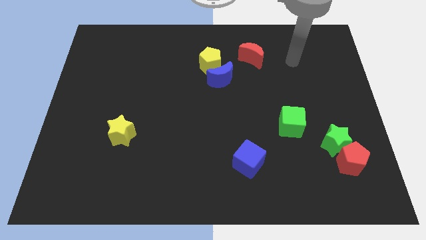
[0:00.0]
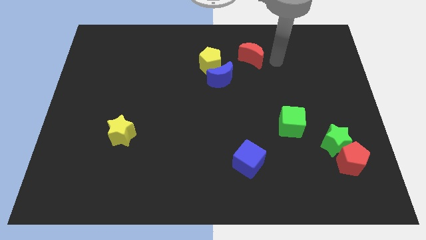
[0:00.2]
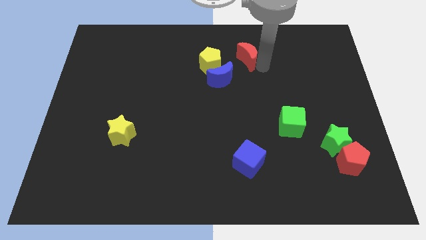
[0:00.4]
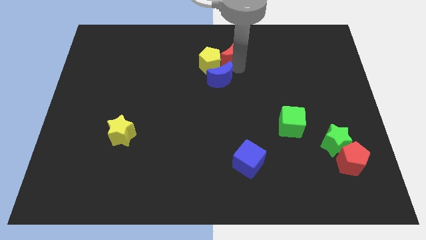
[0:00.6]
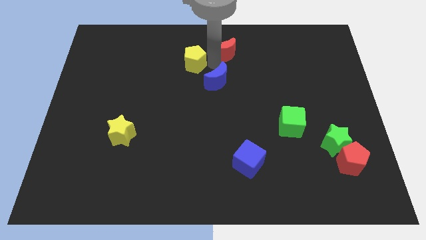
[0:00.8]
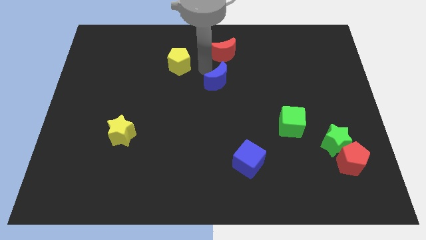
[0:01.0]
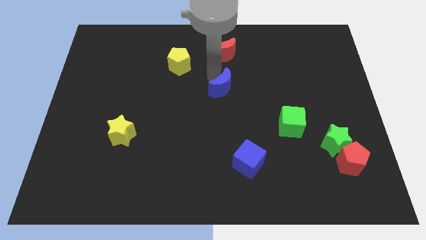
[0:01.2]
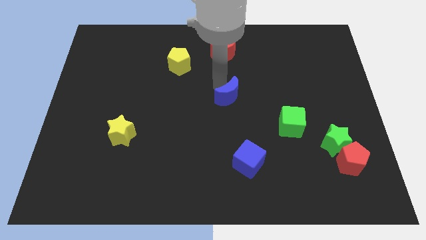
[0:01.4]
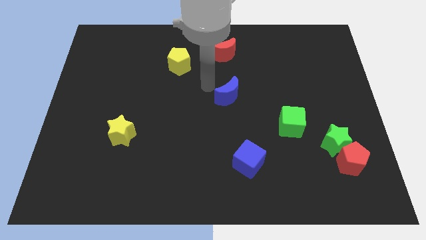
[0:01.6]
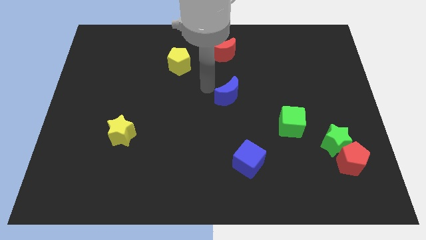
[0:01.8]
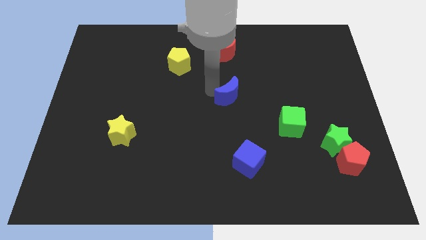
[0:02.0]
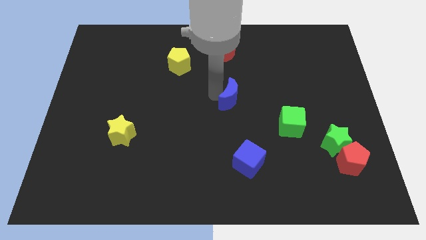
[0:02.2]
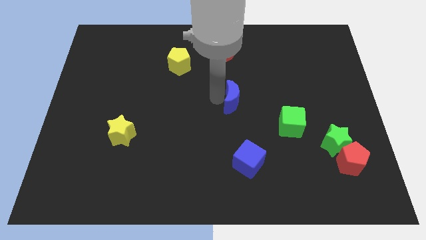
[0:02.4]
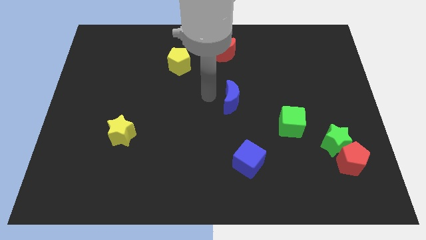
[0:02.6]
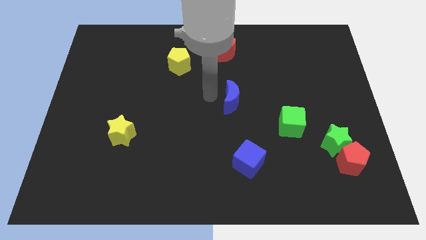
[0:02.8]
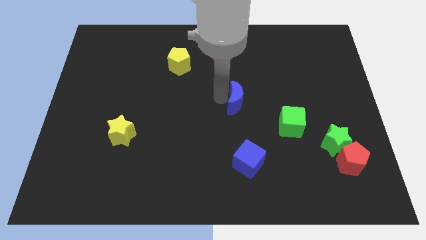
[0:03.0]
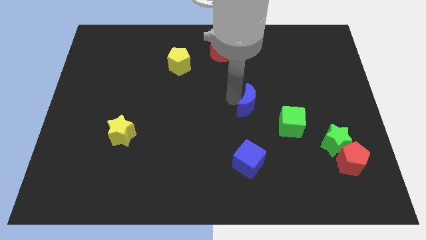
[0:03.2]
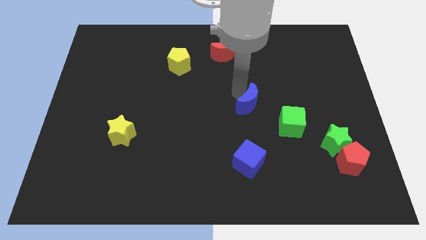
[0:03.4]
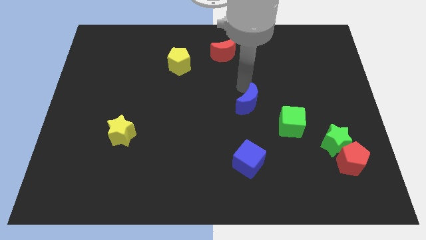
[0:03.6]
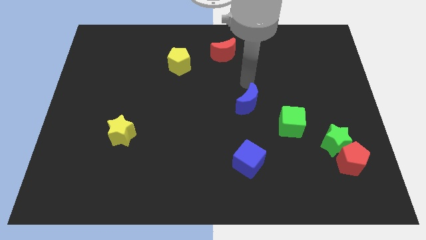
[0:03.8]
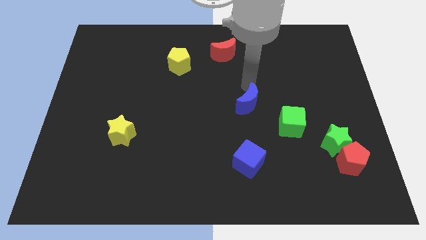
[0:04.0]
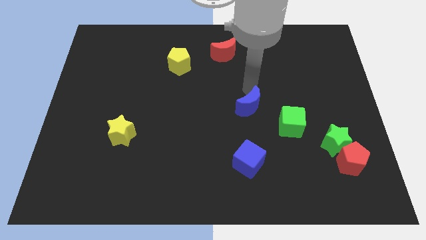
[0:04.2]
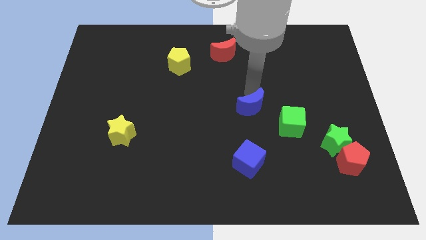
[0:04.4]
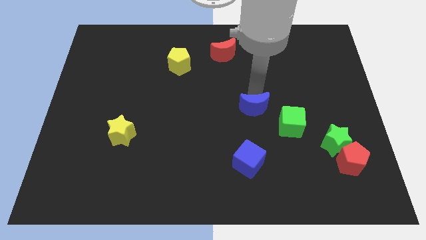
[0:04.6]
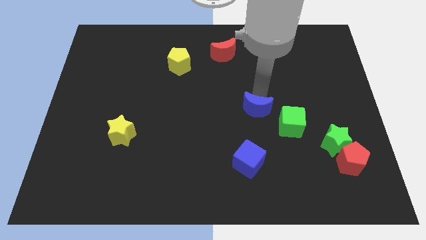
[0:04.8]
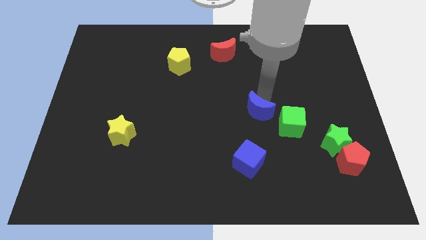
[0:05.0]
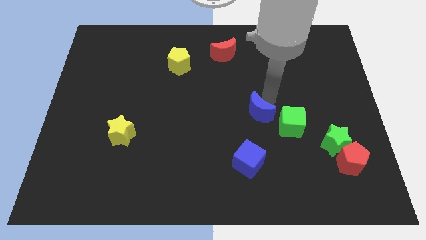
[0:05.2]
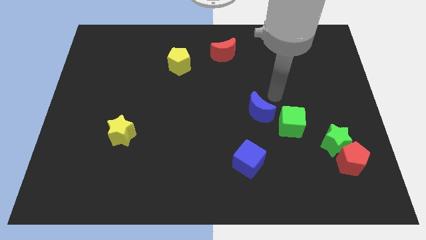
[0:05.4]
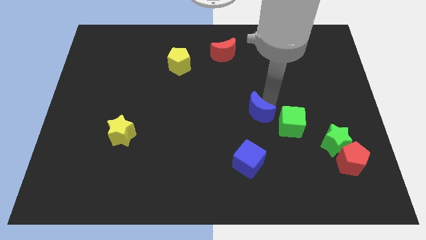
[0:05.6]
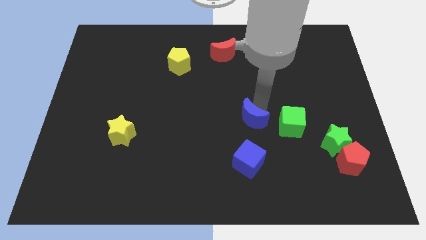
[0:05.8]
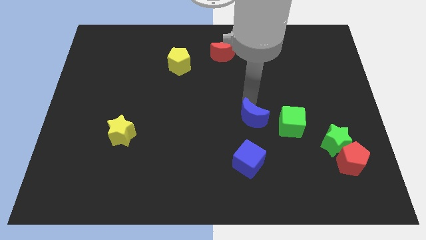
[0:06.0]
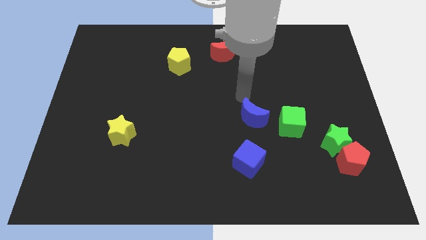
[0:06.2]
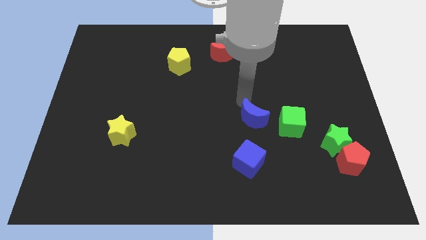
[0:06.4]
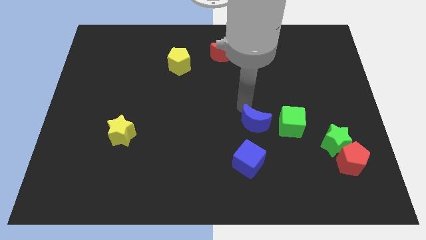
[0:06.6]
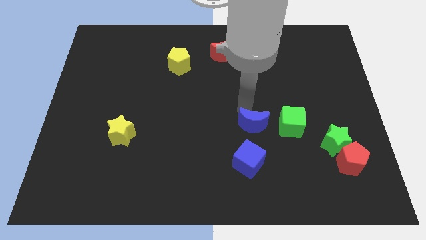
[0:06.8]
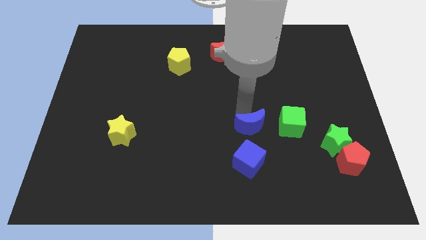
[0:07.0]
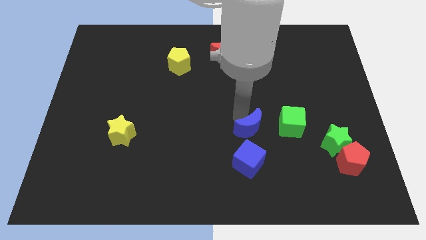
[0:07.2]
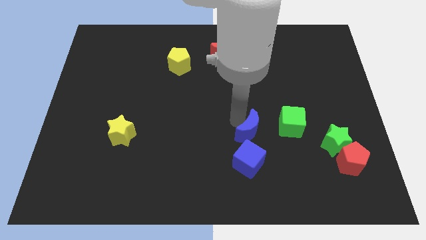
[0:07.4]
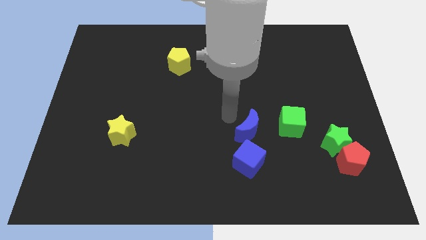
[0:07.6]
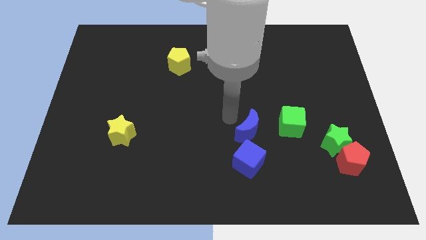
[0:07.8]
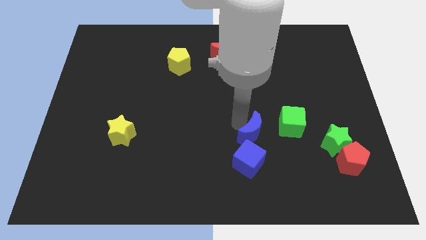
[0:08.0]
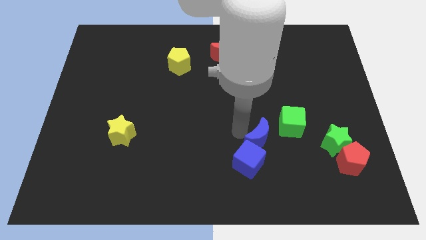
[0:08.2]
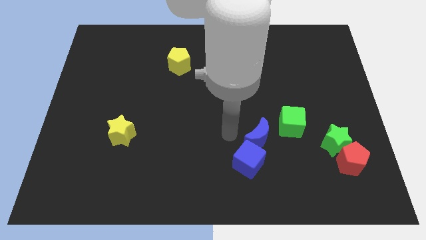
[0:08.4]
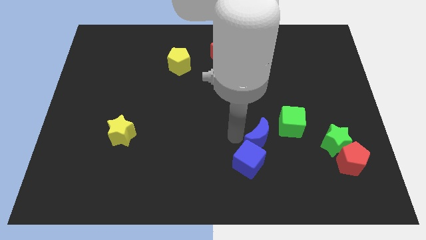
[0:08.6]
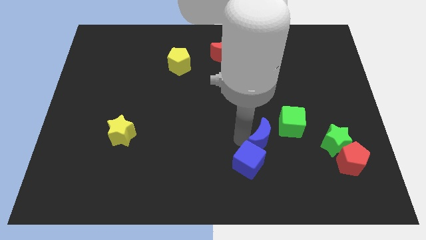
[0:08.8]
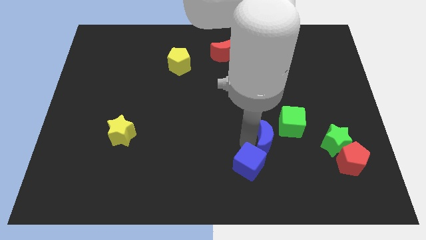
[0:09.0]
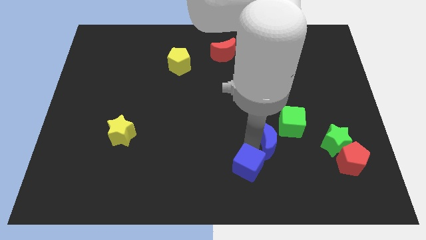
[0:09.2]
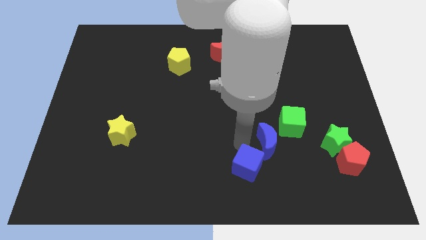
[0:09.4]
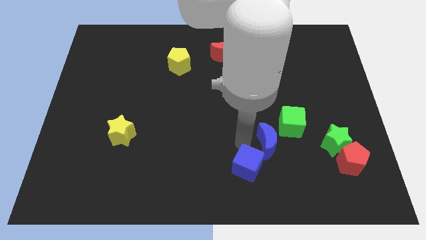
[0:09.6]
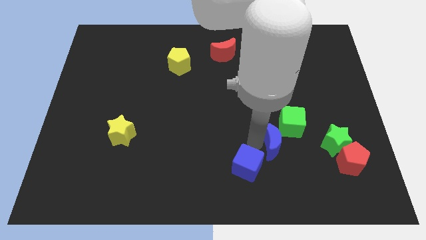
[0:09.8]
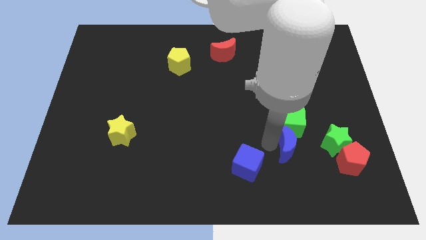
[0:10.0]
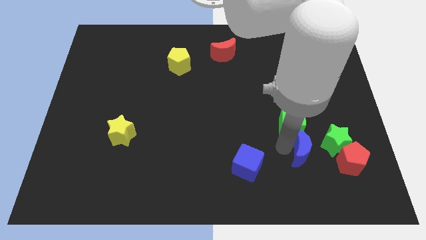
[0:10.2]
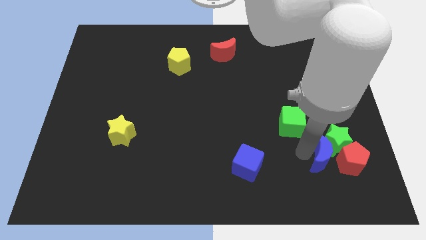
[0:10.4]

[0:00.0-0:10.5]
slide the blue moon to the red pentagon

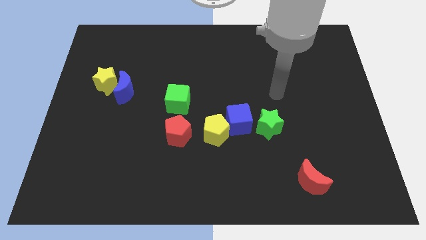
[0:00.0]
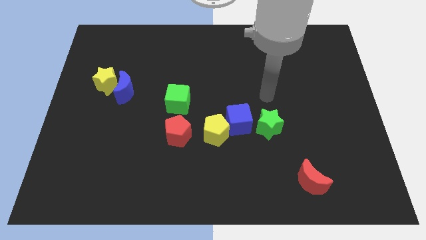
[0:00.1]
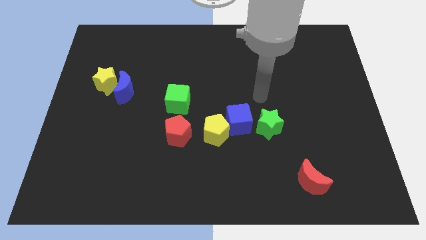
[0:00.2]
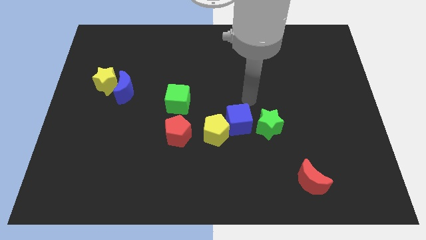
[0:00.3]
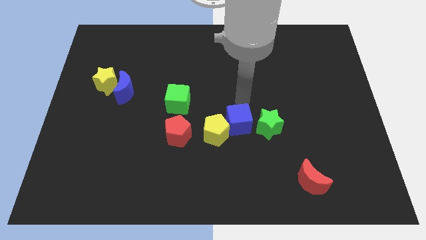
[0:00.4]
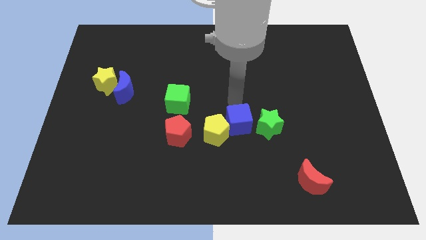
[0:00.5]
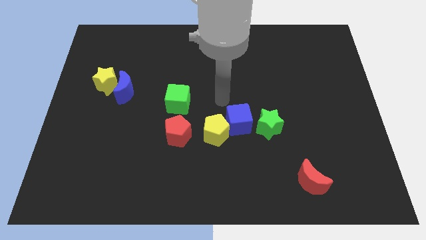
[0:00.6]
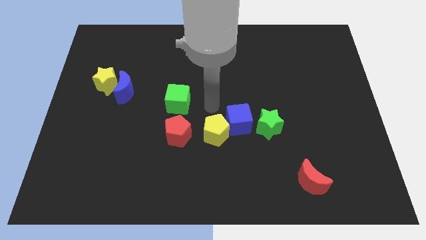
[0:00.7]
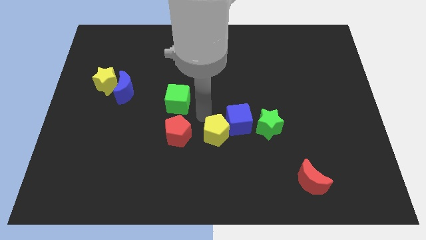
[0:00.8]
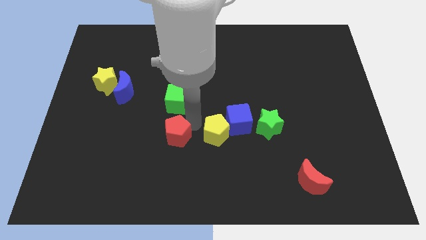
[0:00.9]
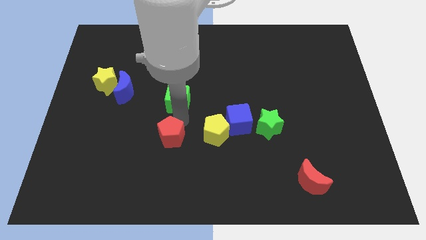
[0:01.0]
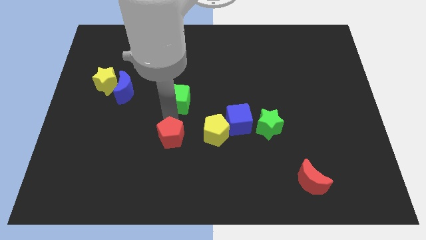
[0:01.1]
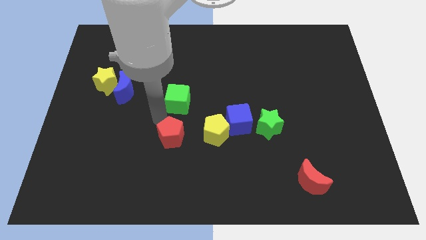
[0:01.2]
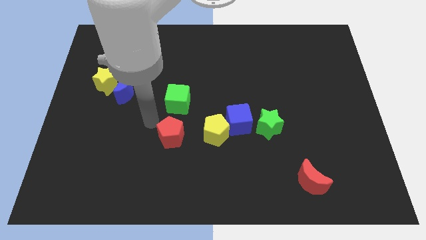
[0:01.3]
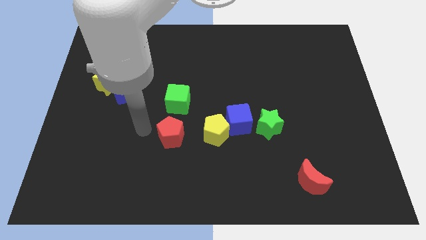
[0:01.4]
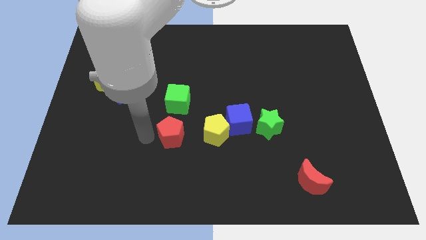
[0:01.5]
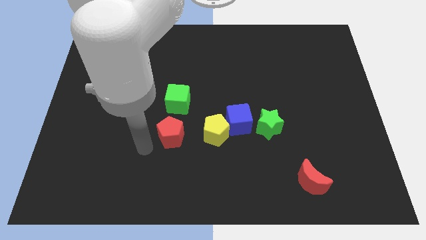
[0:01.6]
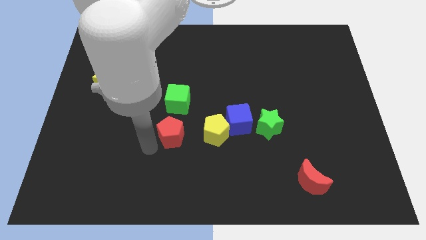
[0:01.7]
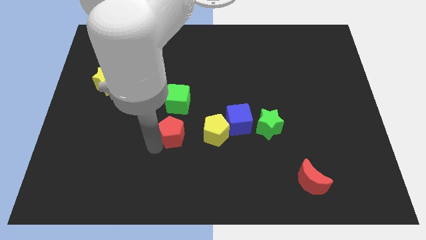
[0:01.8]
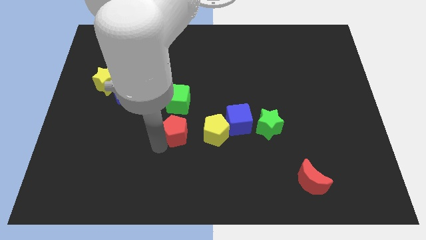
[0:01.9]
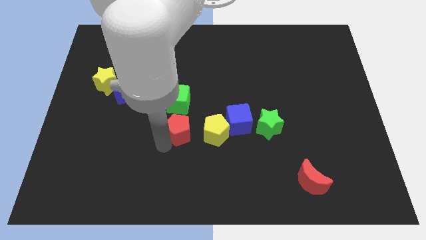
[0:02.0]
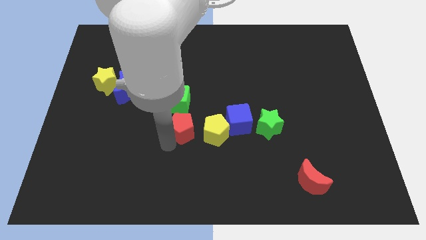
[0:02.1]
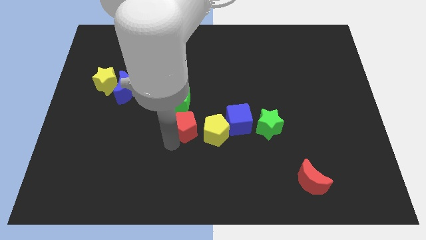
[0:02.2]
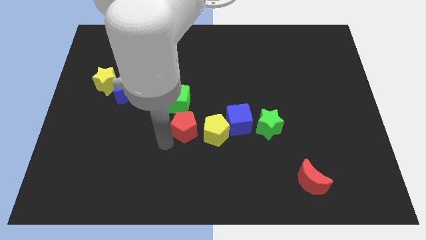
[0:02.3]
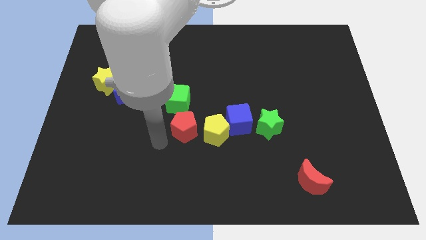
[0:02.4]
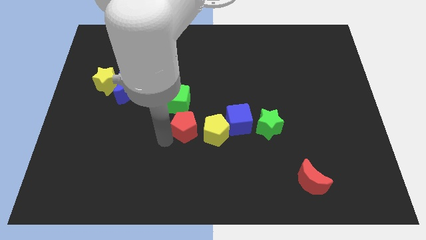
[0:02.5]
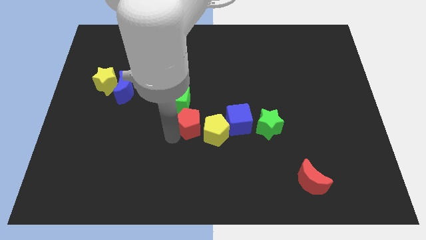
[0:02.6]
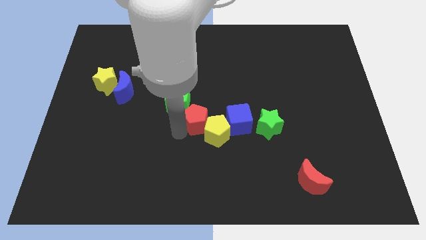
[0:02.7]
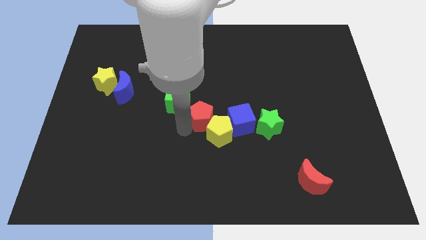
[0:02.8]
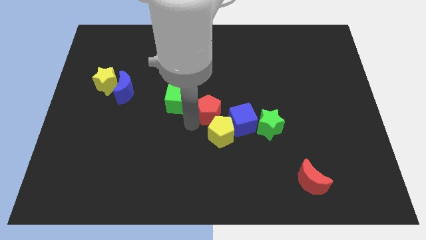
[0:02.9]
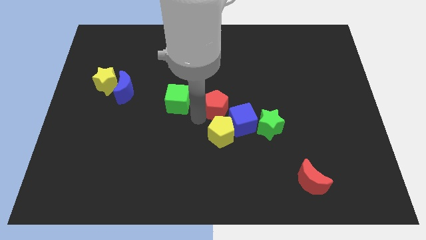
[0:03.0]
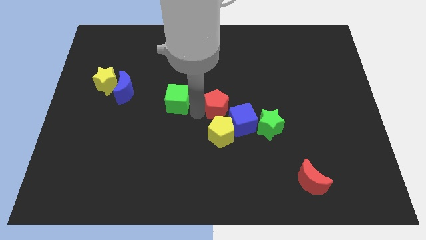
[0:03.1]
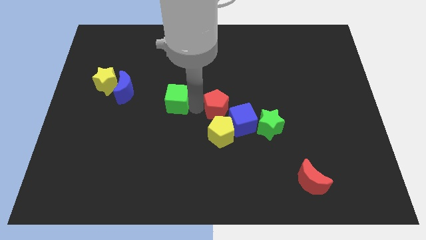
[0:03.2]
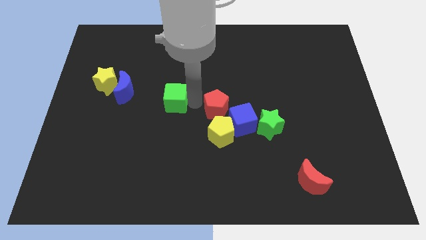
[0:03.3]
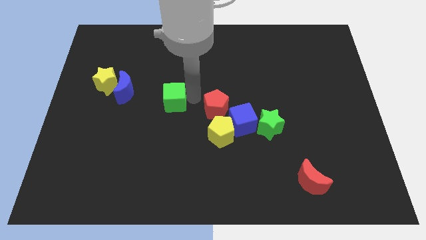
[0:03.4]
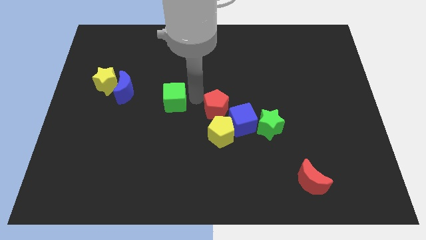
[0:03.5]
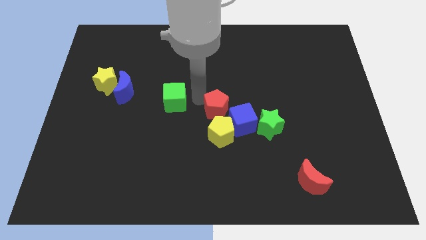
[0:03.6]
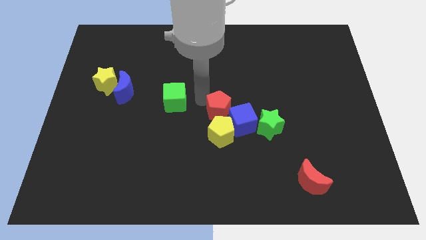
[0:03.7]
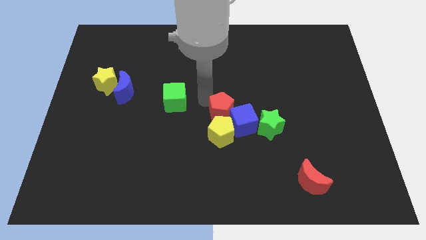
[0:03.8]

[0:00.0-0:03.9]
move the red pentagon to the blue cube
